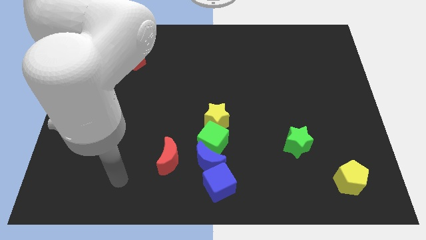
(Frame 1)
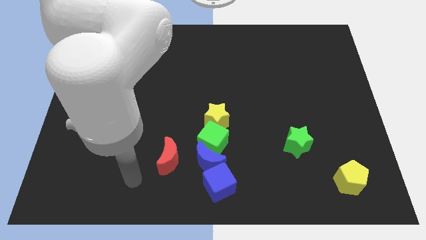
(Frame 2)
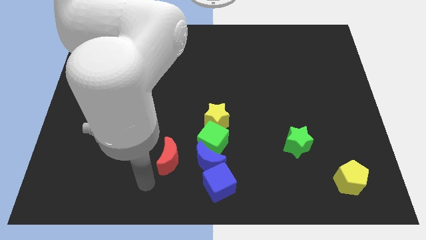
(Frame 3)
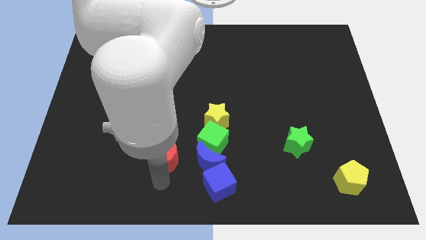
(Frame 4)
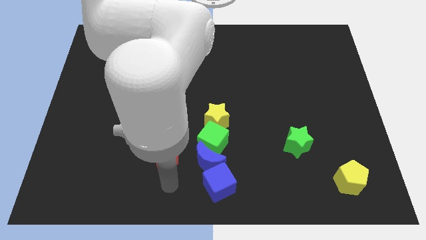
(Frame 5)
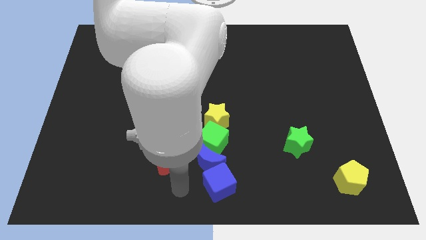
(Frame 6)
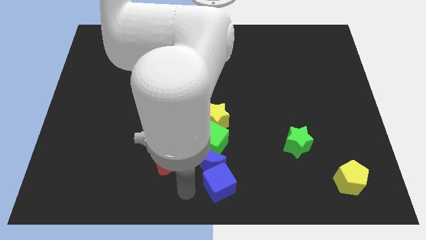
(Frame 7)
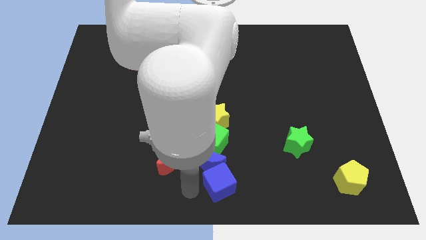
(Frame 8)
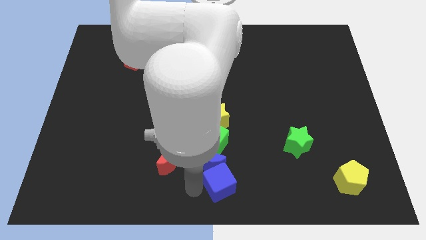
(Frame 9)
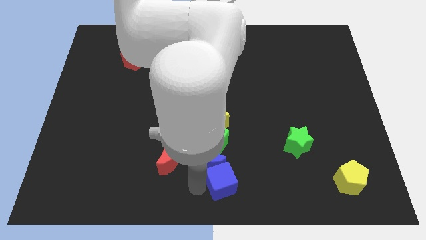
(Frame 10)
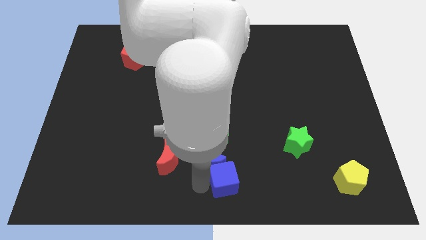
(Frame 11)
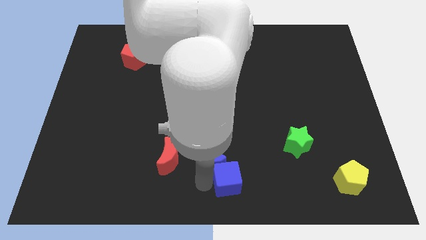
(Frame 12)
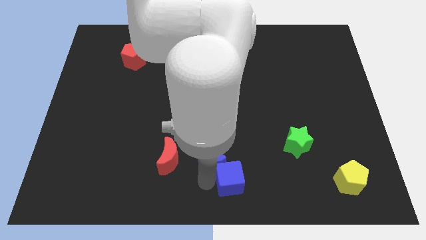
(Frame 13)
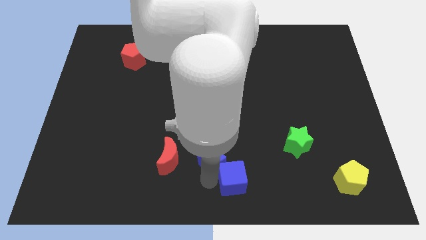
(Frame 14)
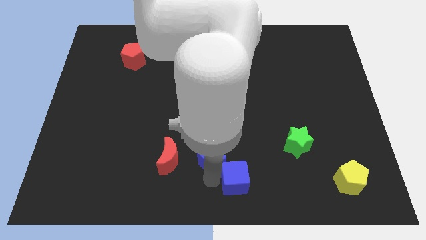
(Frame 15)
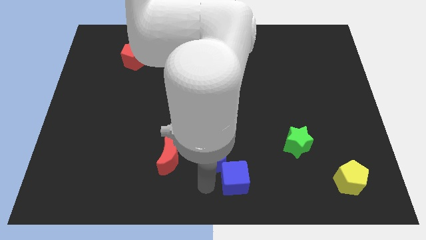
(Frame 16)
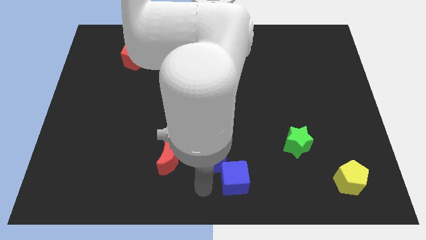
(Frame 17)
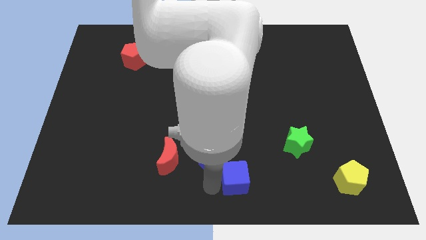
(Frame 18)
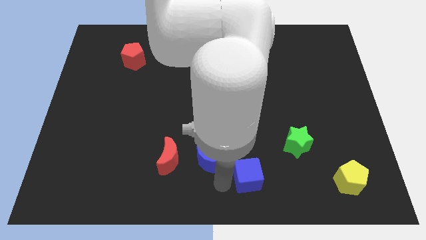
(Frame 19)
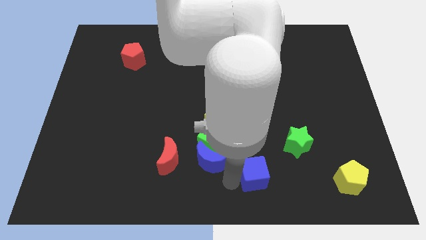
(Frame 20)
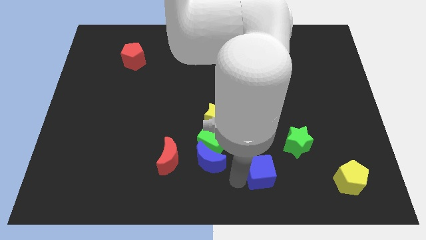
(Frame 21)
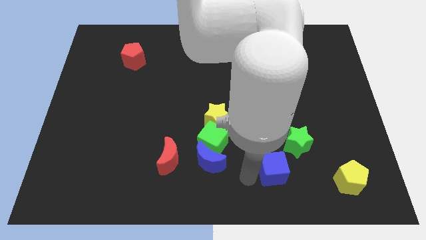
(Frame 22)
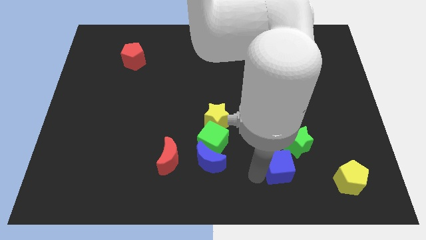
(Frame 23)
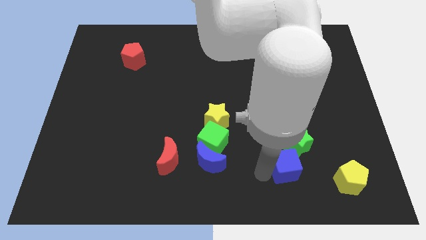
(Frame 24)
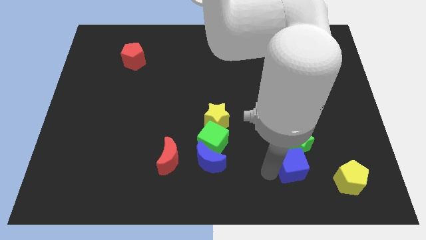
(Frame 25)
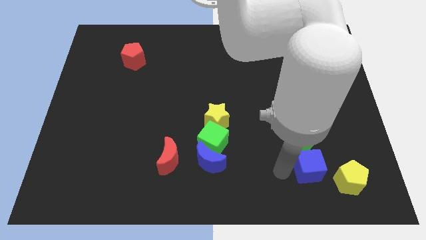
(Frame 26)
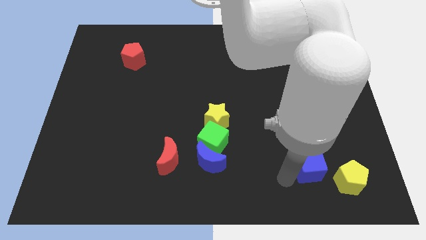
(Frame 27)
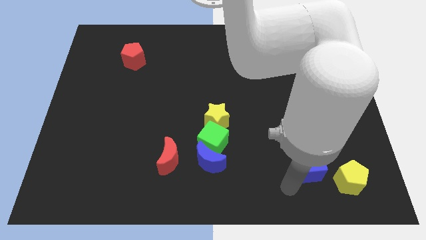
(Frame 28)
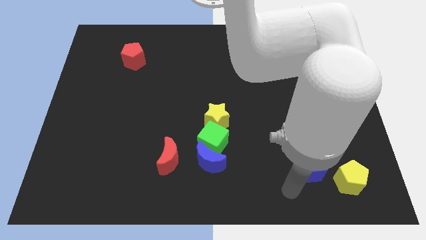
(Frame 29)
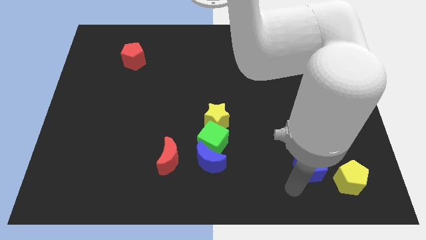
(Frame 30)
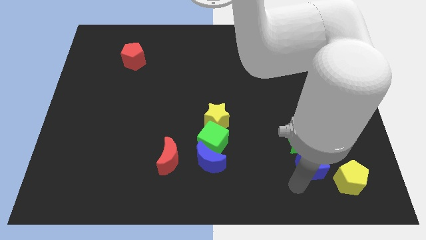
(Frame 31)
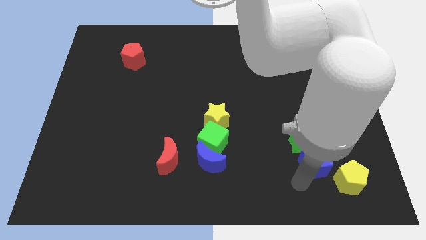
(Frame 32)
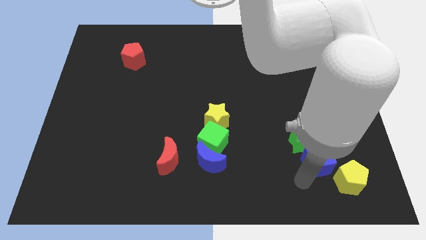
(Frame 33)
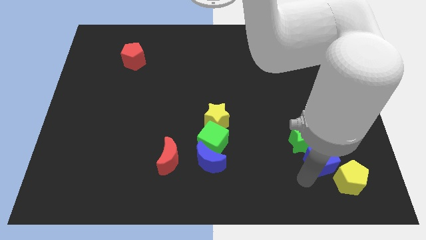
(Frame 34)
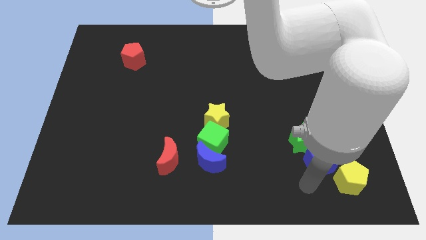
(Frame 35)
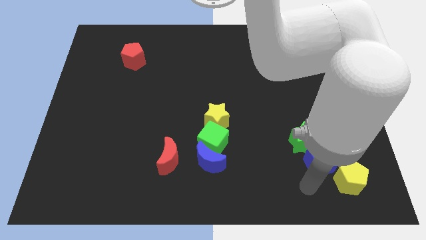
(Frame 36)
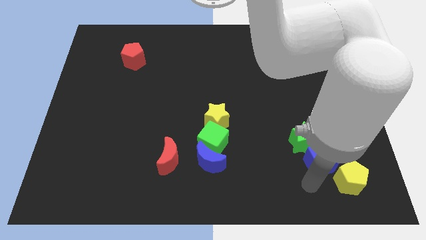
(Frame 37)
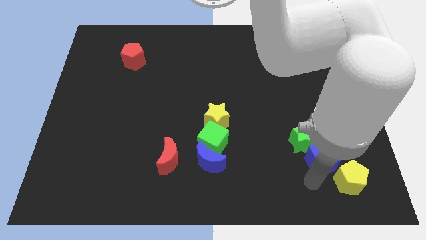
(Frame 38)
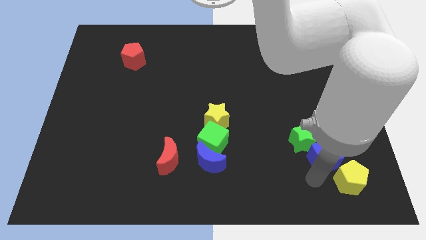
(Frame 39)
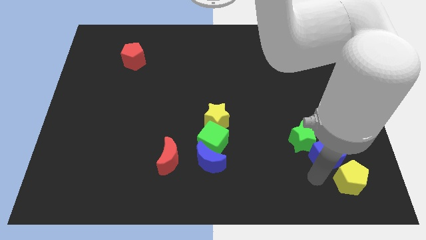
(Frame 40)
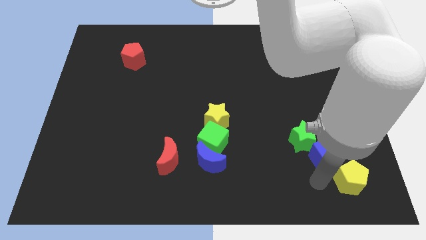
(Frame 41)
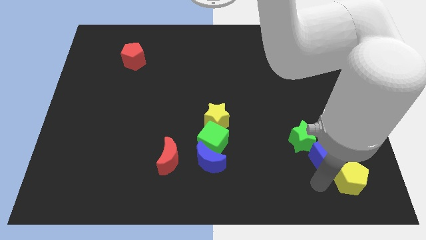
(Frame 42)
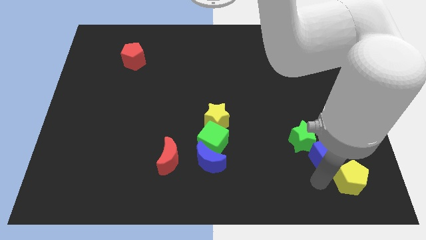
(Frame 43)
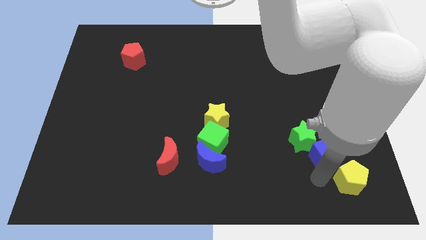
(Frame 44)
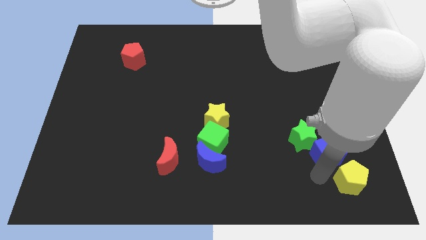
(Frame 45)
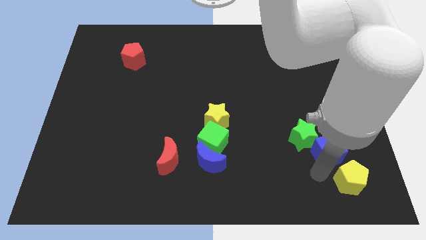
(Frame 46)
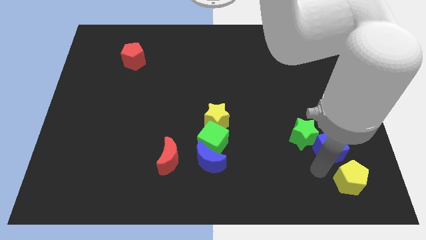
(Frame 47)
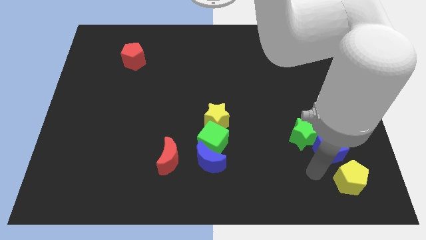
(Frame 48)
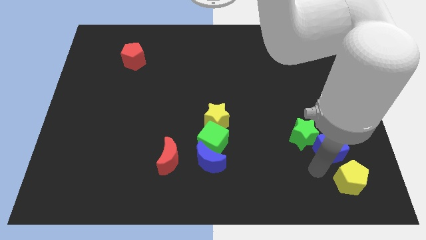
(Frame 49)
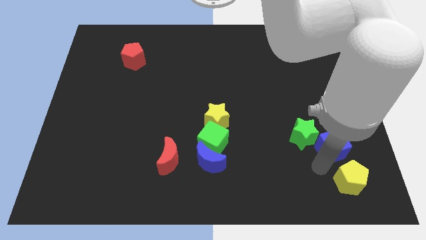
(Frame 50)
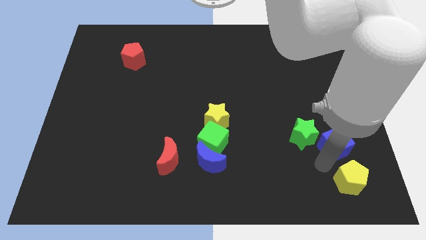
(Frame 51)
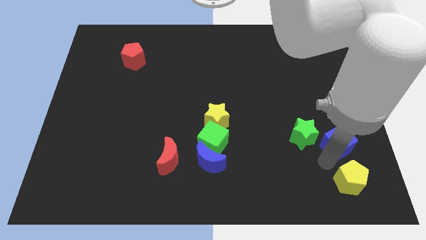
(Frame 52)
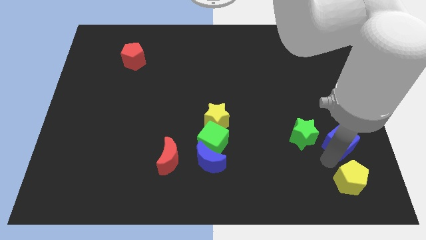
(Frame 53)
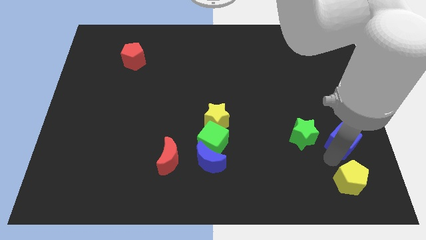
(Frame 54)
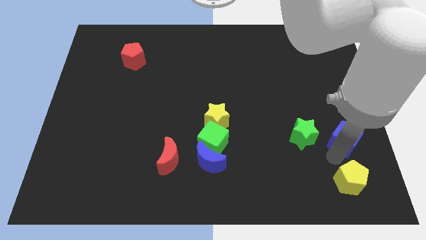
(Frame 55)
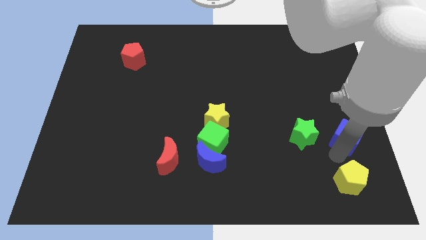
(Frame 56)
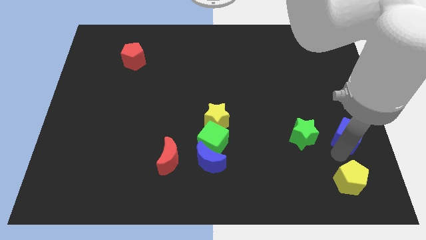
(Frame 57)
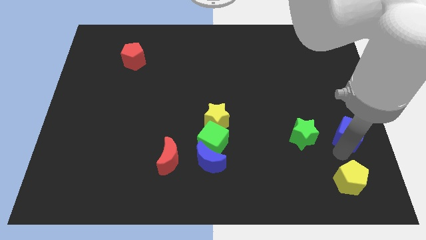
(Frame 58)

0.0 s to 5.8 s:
push the blue cube to the center right

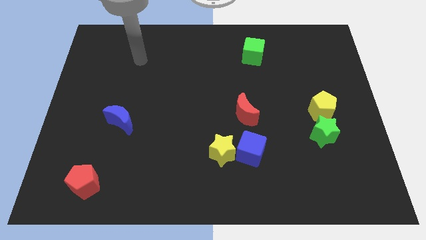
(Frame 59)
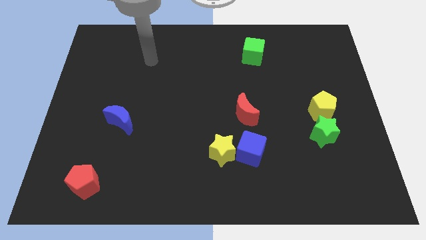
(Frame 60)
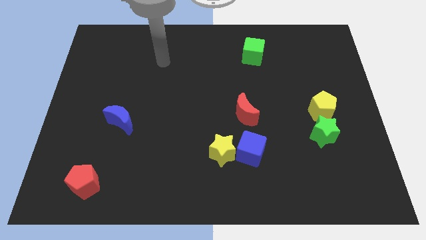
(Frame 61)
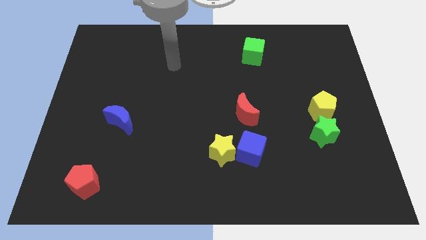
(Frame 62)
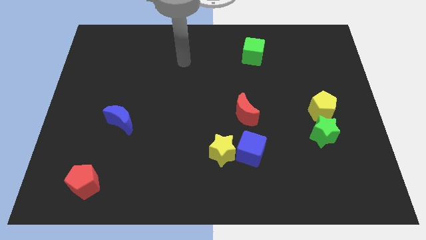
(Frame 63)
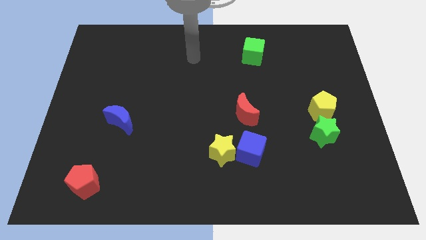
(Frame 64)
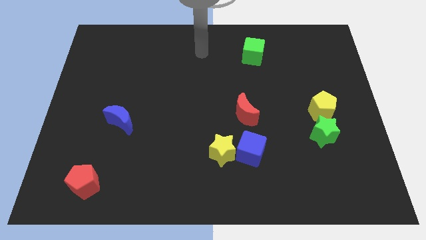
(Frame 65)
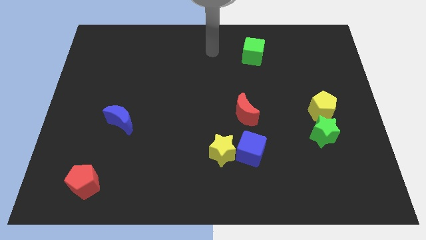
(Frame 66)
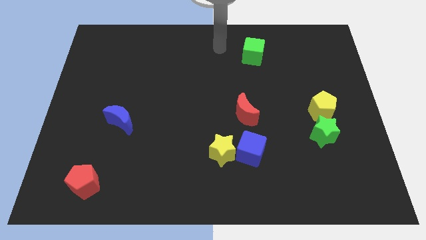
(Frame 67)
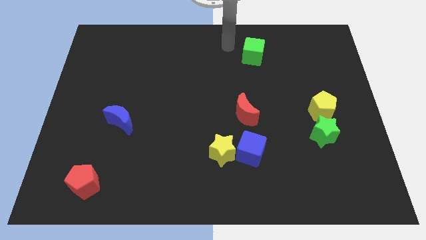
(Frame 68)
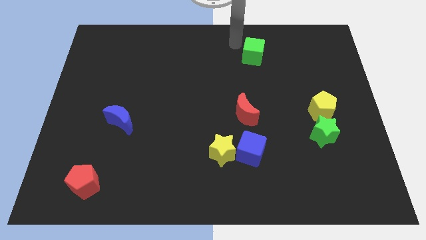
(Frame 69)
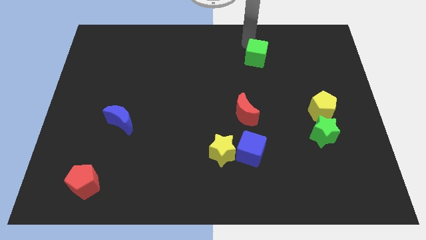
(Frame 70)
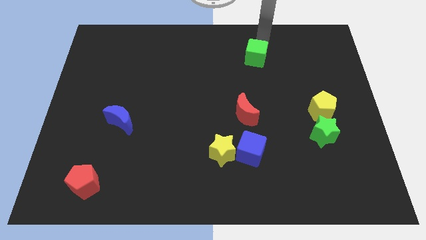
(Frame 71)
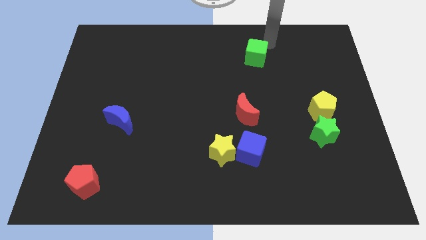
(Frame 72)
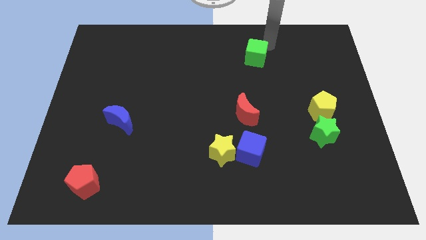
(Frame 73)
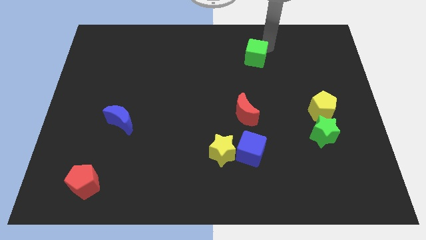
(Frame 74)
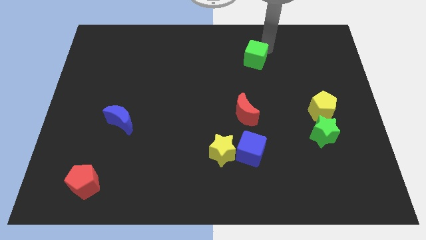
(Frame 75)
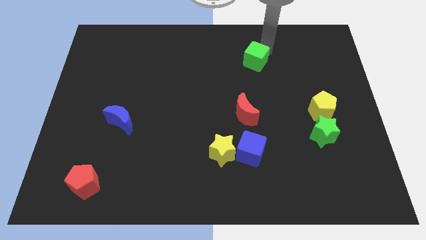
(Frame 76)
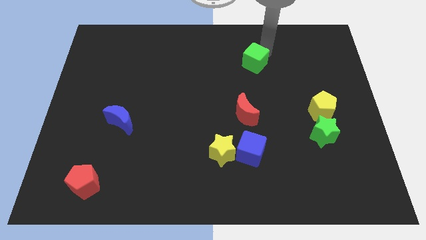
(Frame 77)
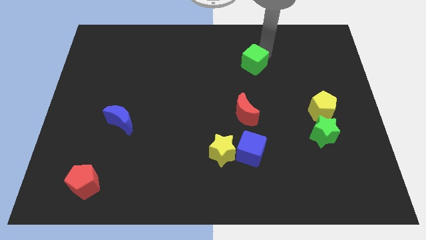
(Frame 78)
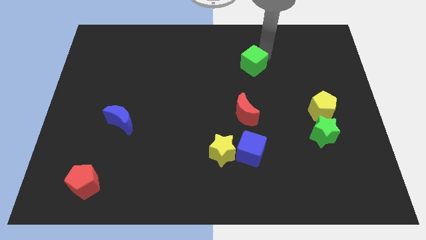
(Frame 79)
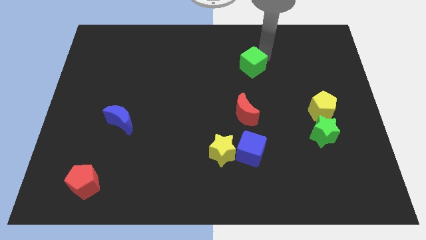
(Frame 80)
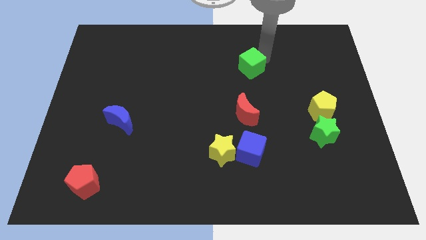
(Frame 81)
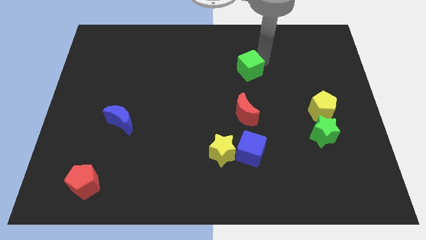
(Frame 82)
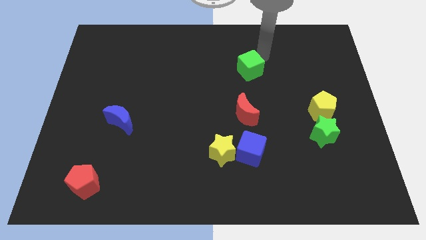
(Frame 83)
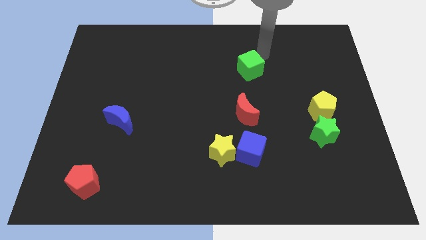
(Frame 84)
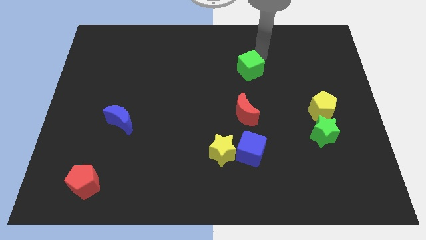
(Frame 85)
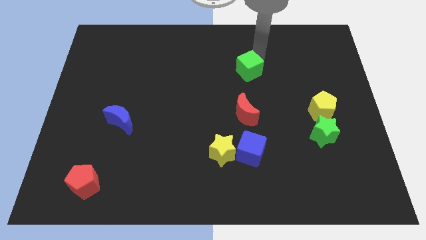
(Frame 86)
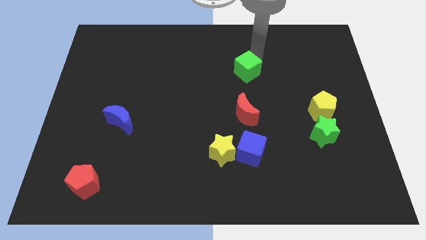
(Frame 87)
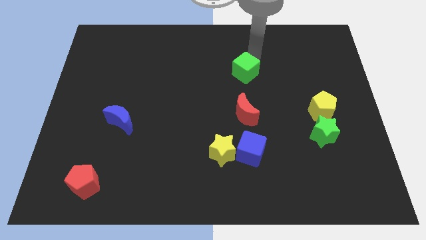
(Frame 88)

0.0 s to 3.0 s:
slide the green cube to the middle
